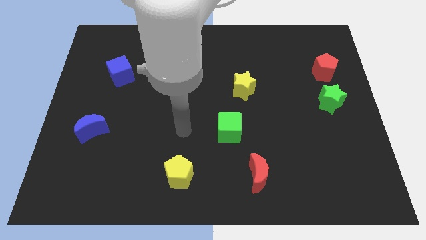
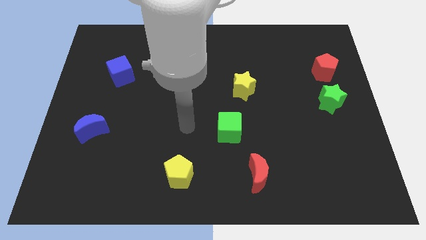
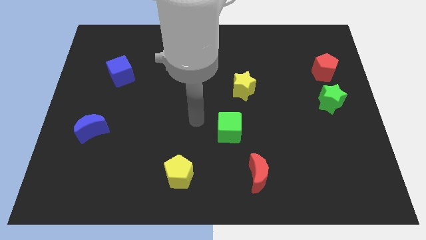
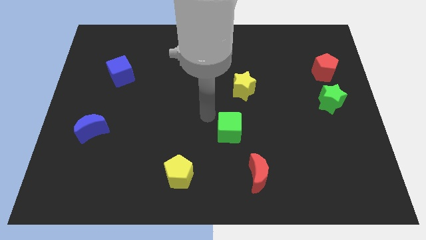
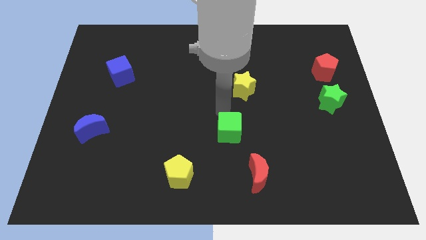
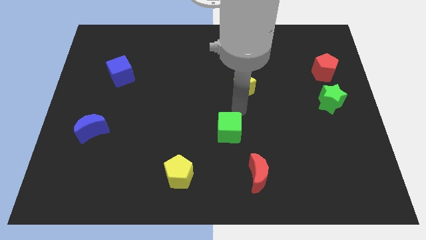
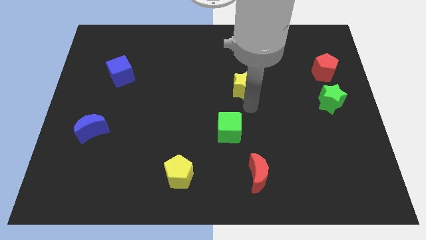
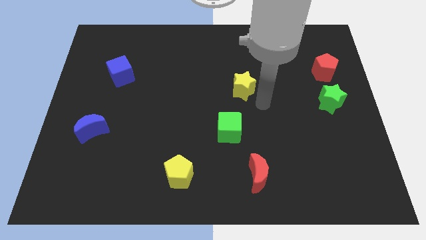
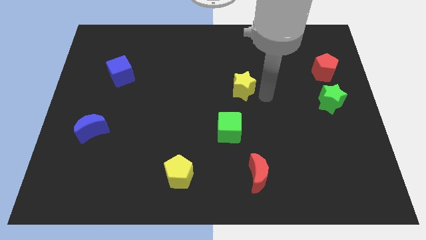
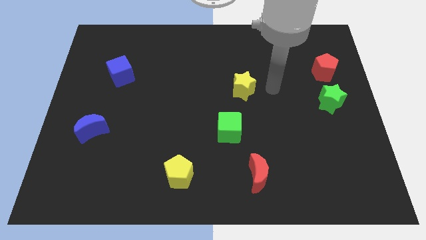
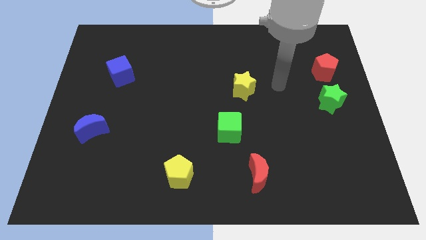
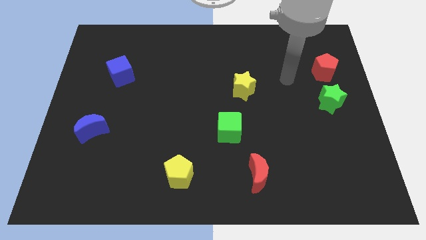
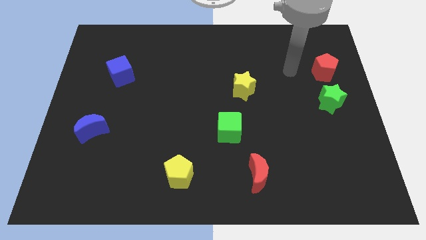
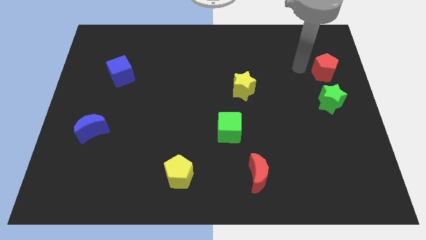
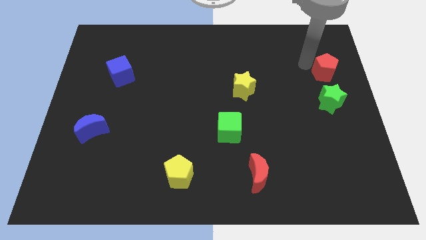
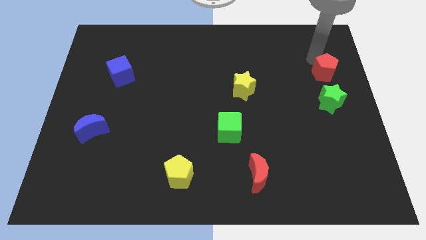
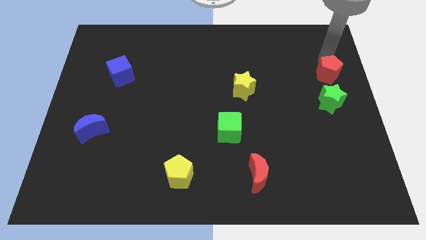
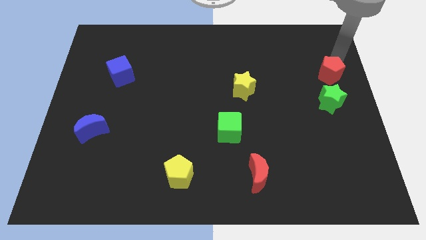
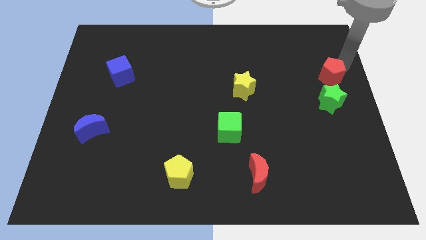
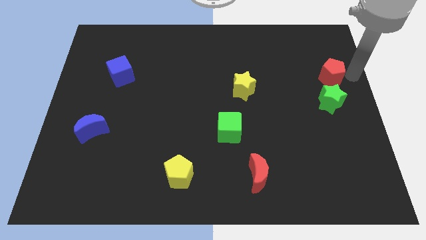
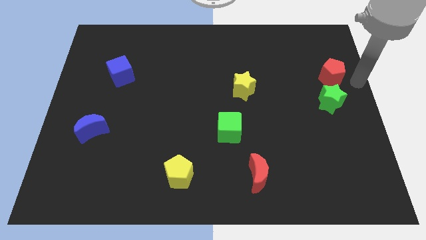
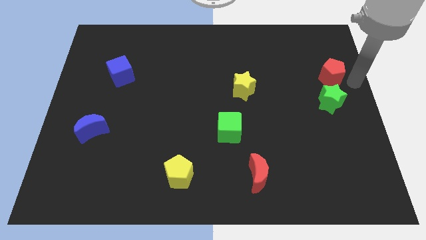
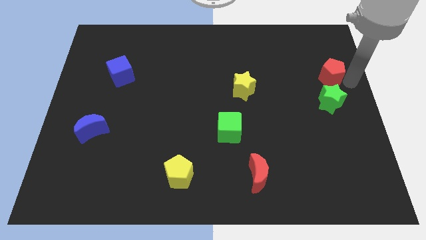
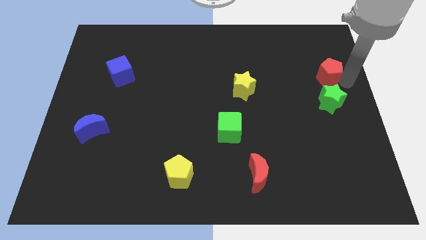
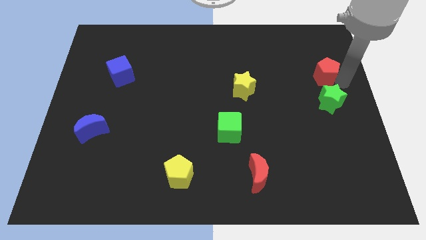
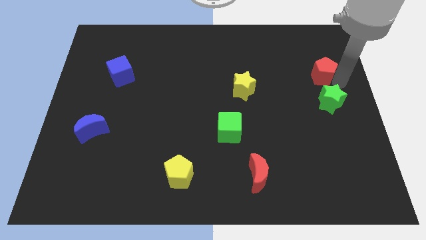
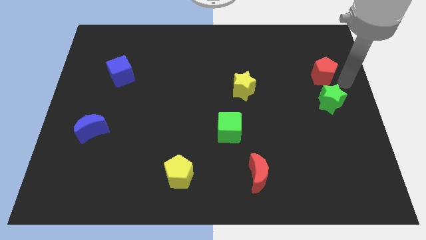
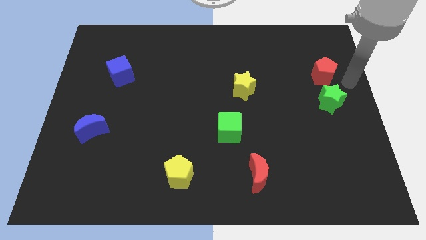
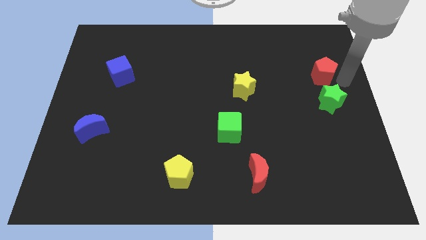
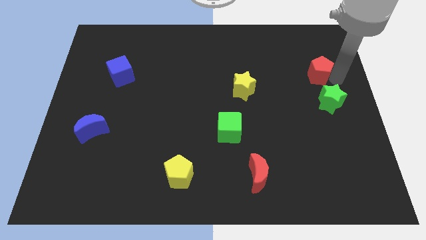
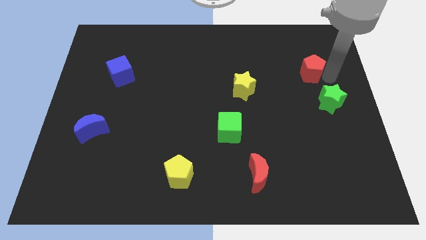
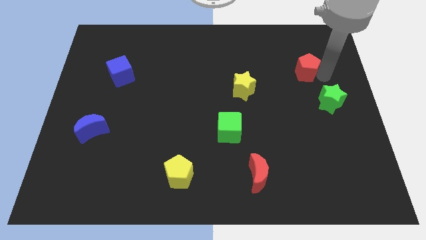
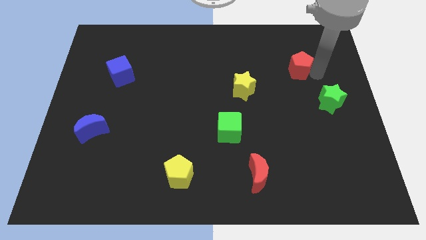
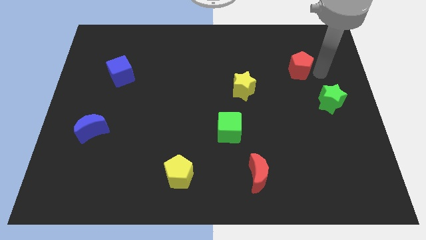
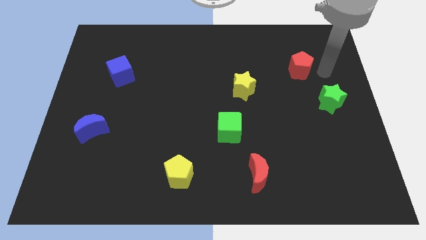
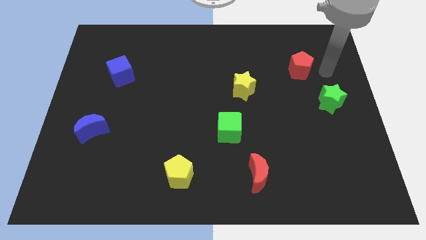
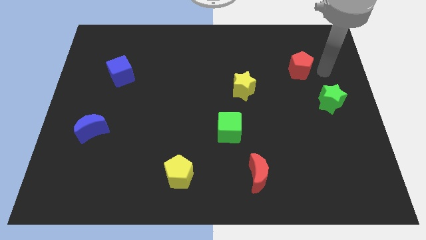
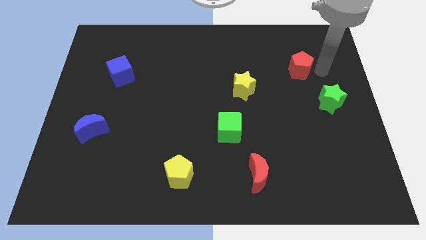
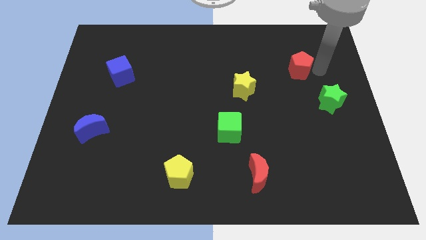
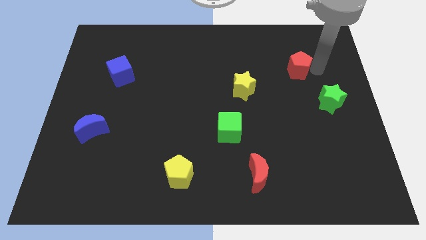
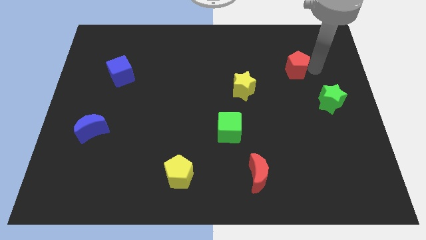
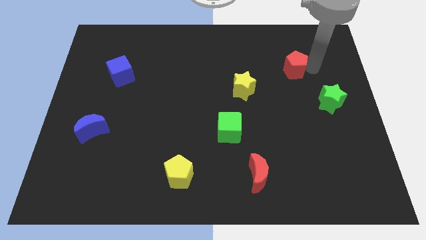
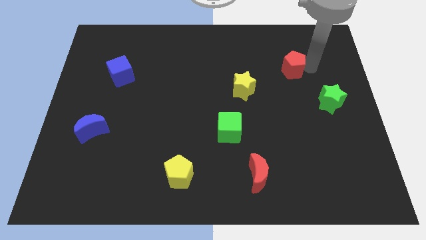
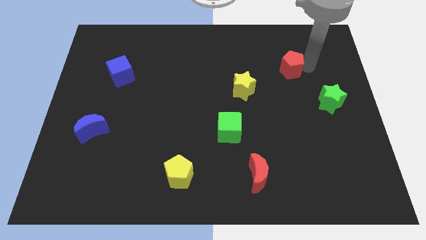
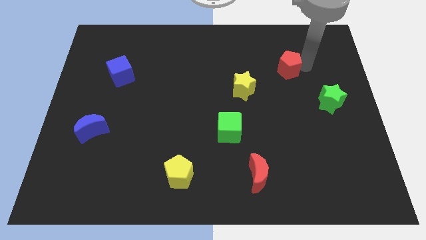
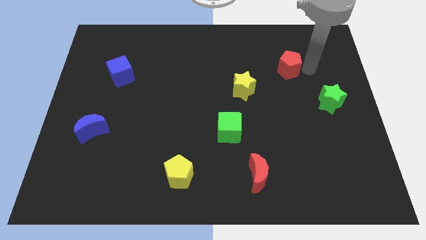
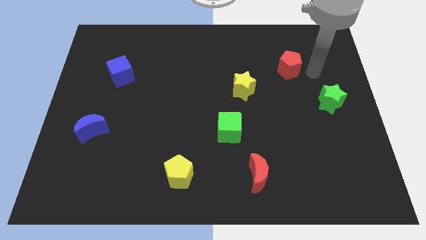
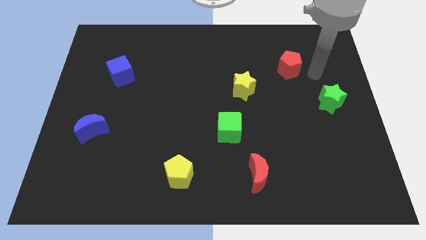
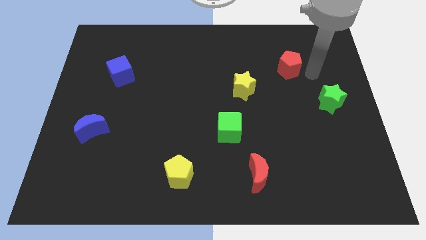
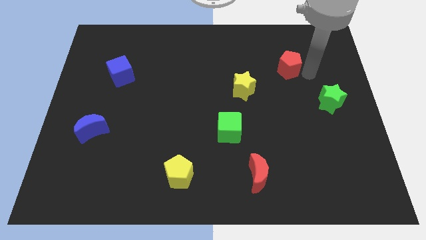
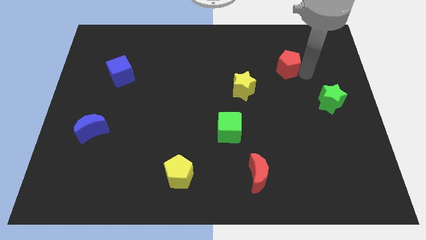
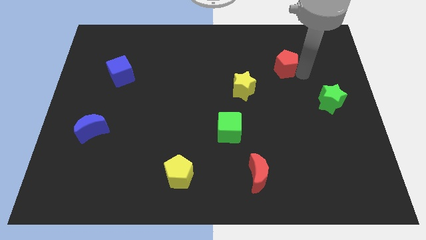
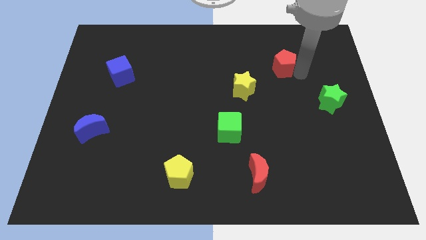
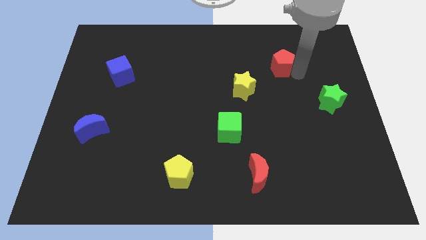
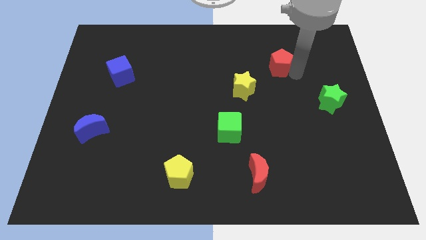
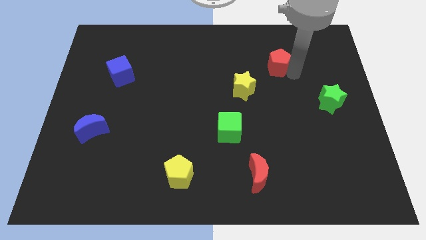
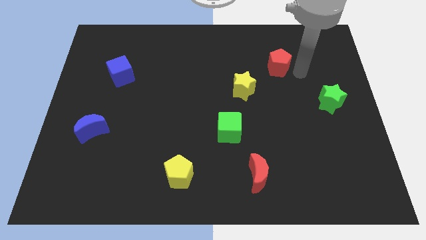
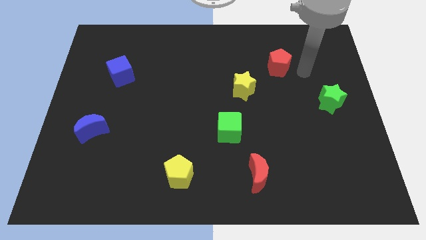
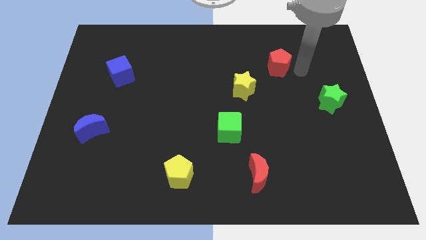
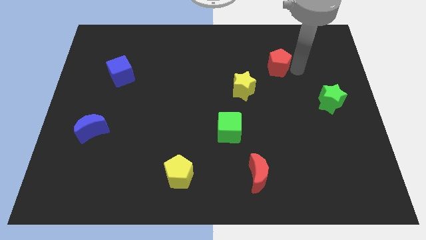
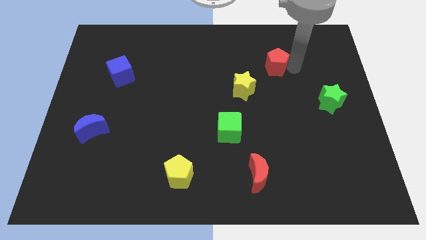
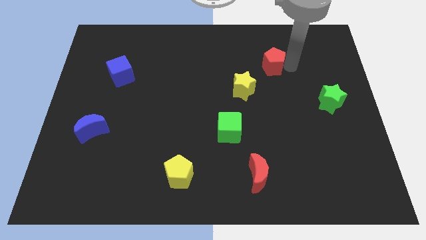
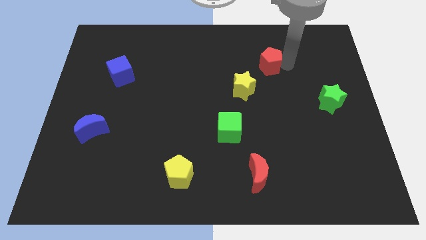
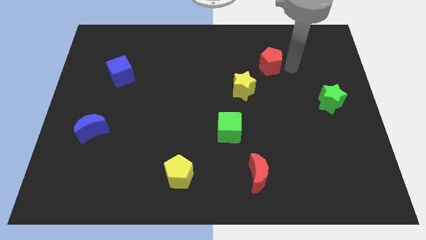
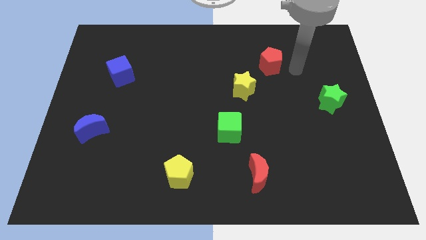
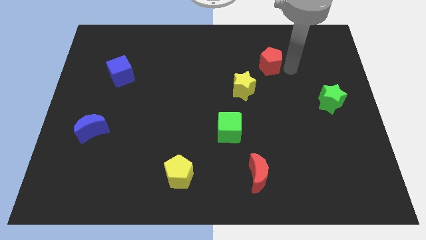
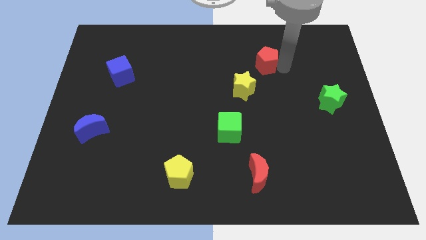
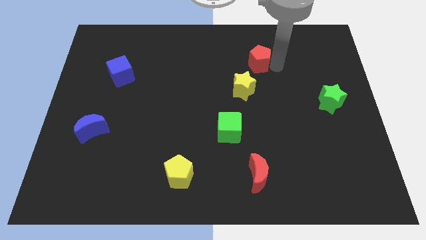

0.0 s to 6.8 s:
slide the red pentagon to the top side of the yellow star
